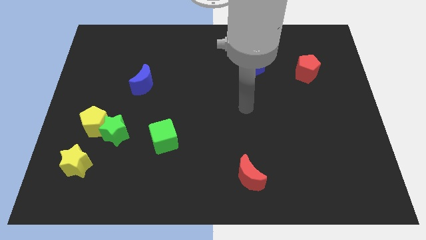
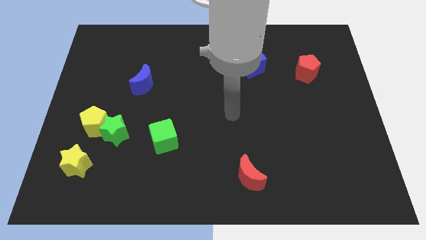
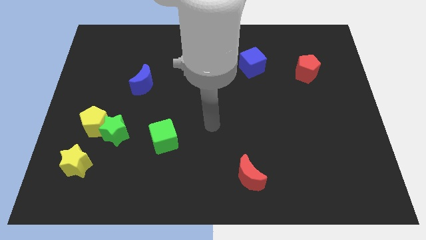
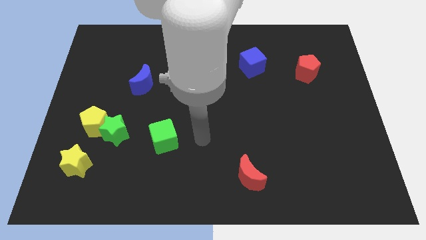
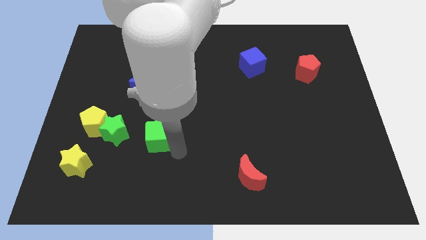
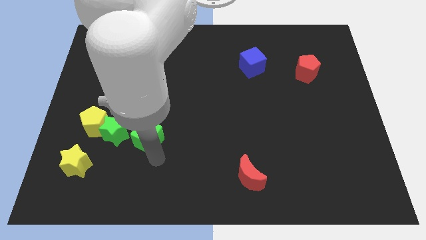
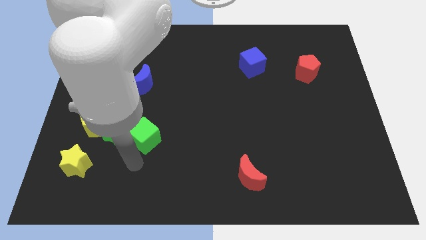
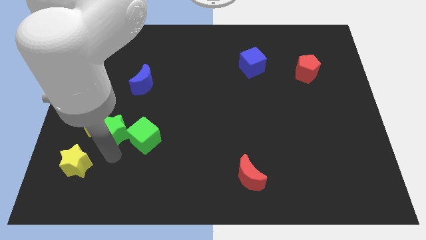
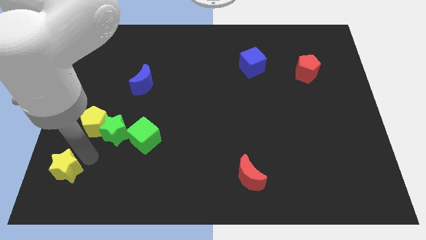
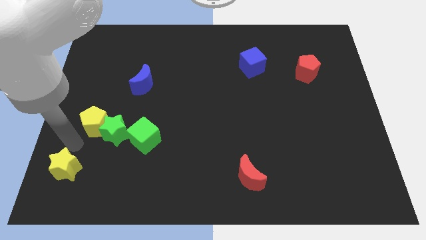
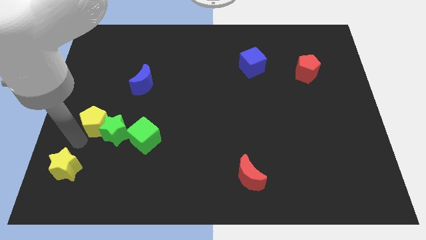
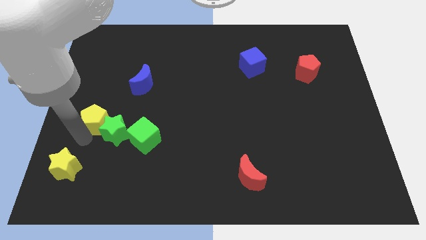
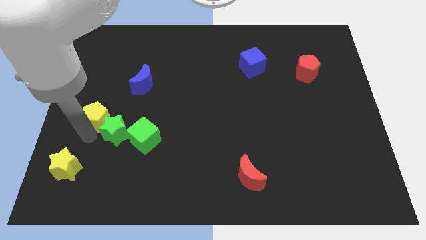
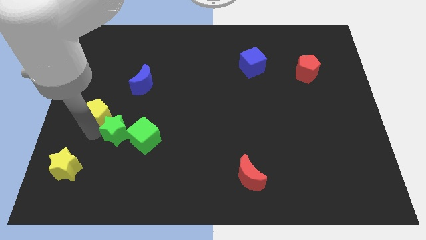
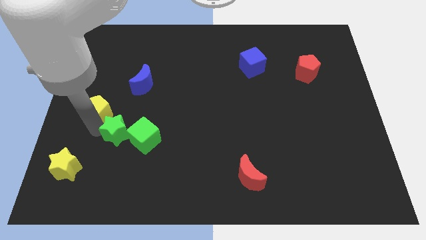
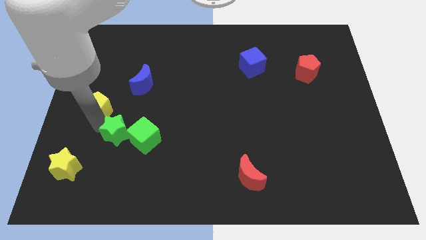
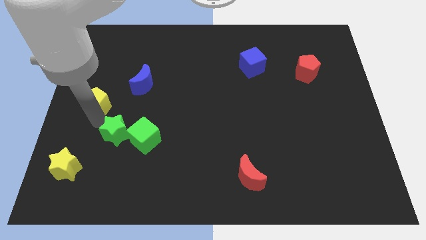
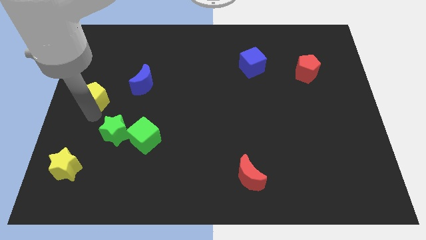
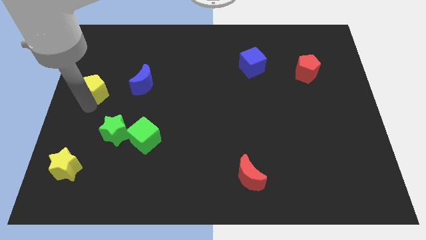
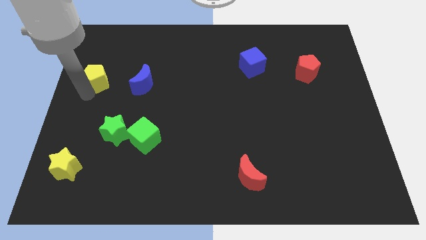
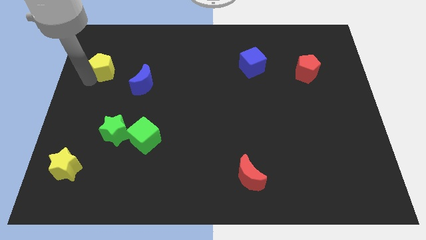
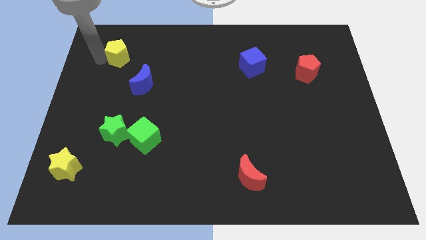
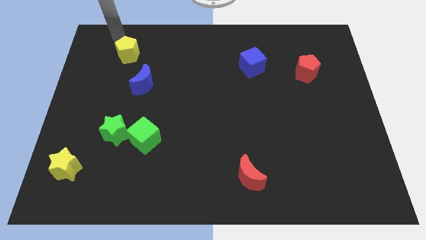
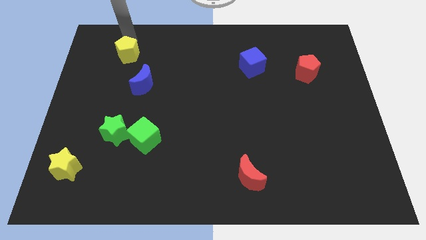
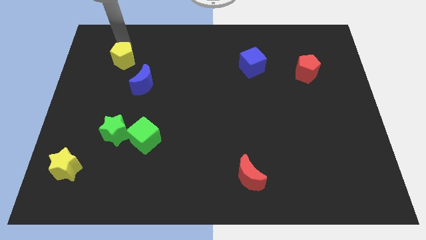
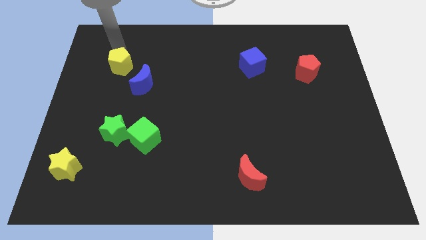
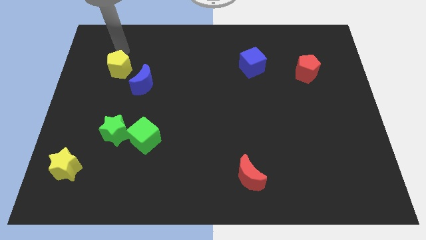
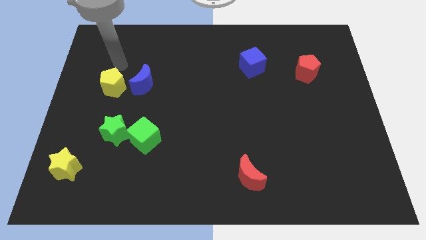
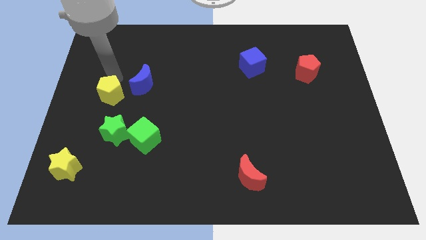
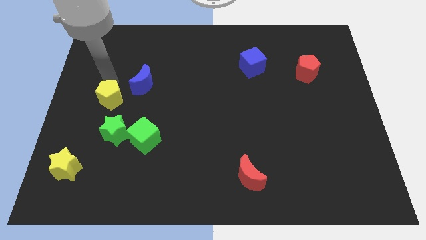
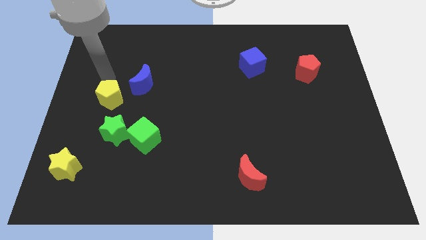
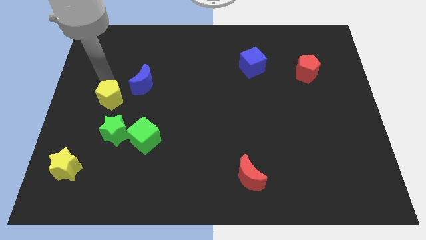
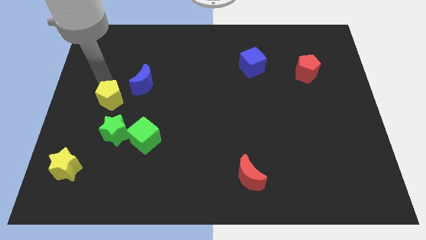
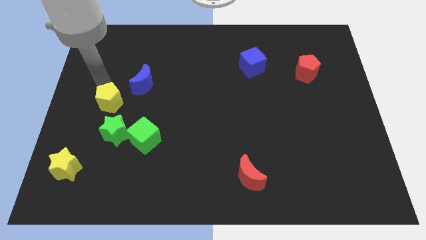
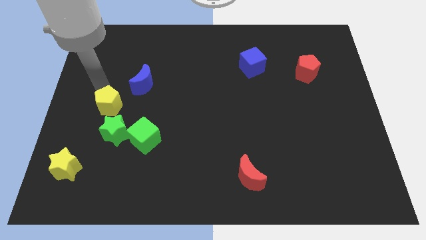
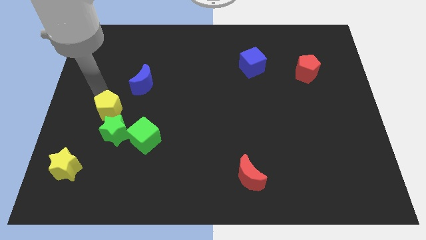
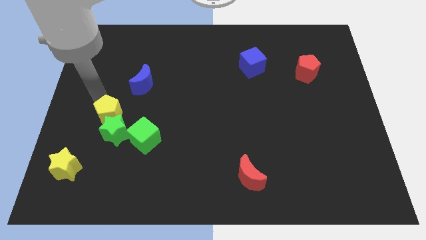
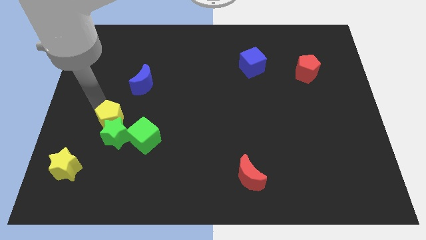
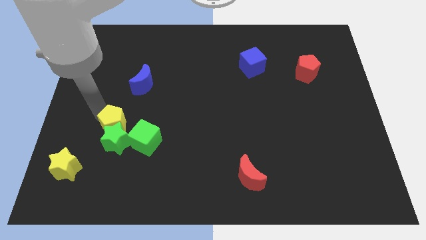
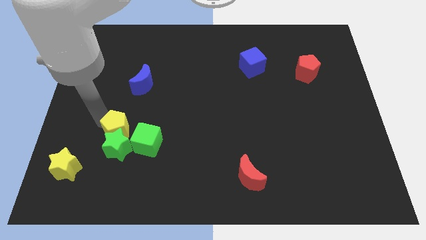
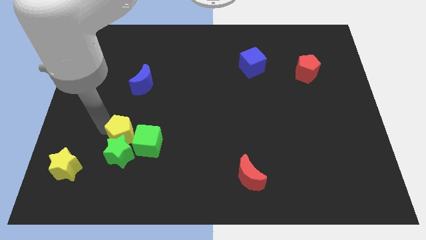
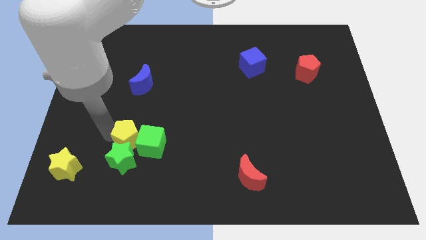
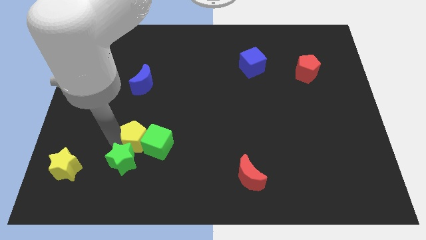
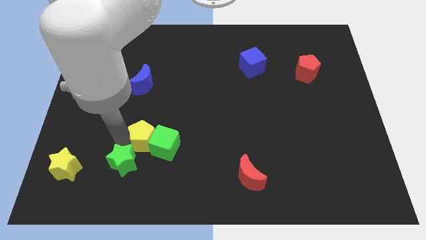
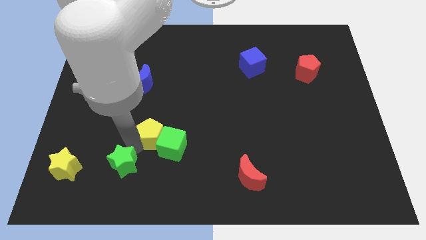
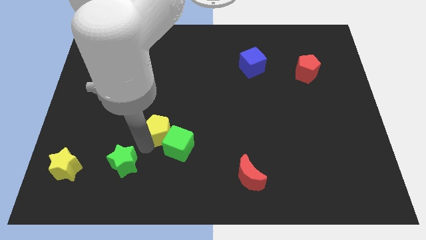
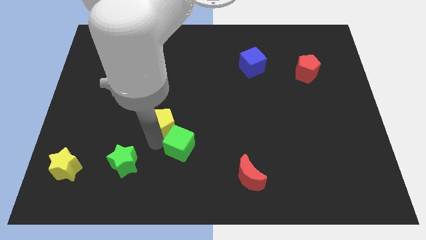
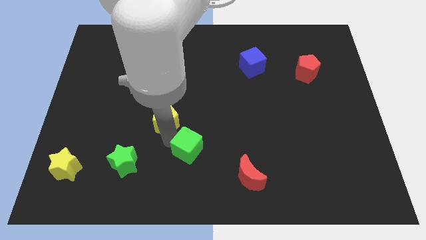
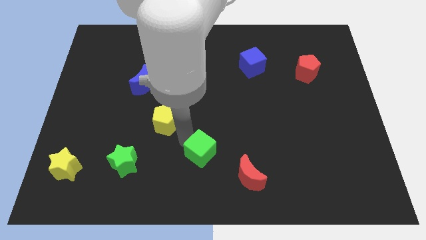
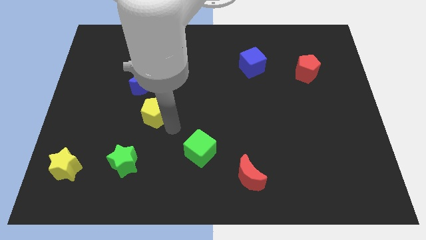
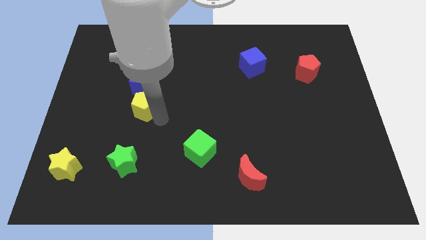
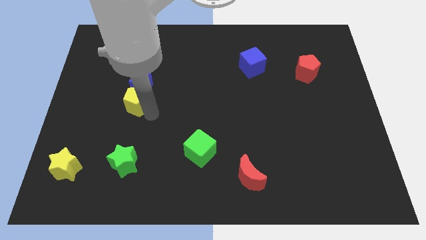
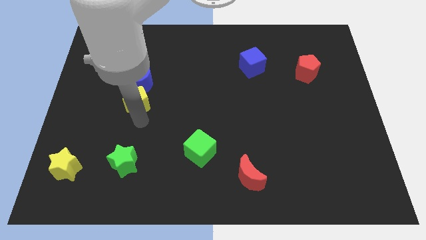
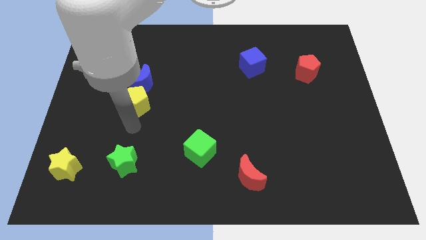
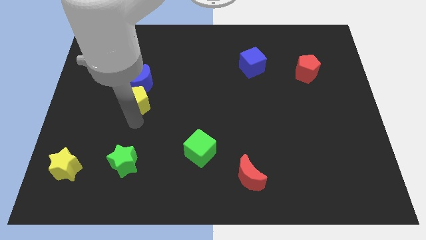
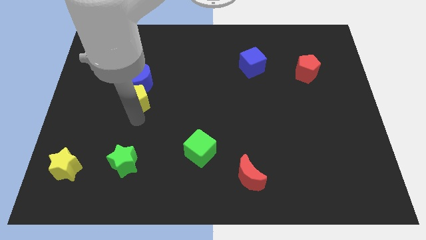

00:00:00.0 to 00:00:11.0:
push the yellow pentagon close to the blue moon

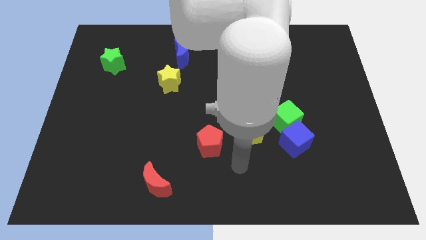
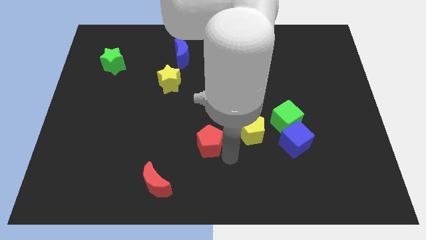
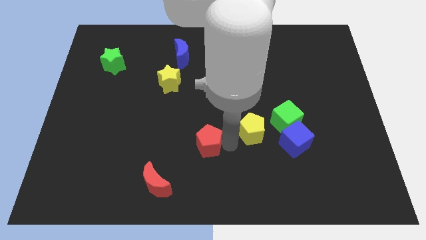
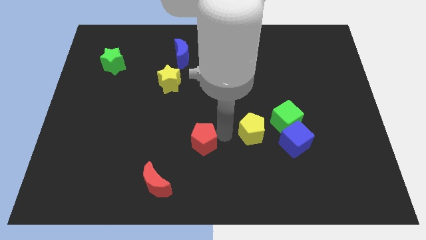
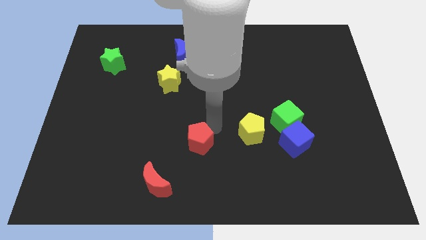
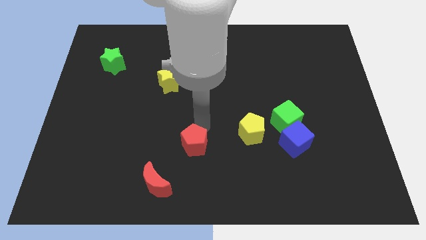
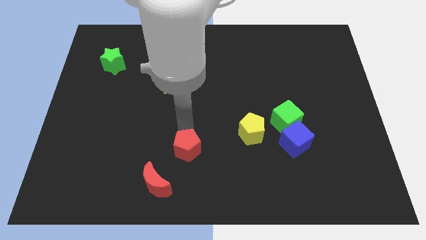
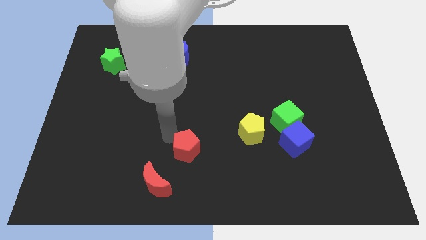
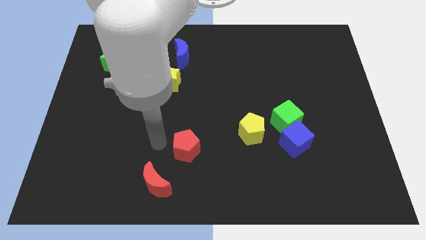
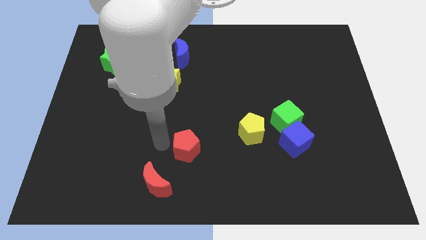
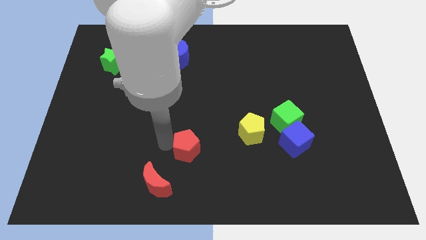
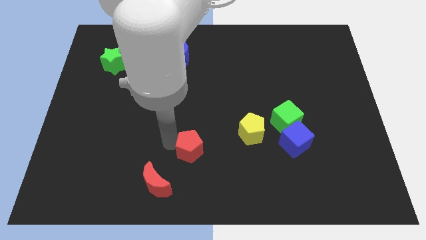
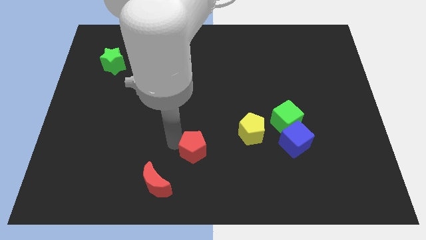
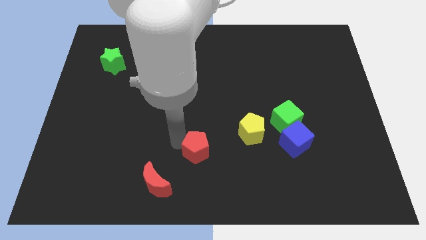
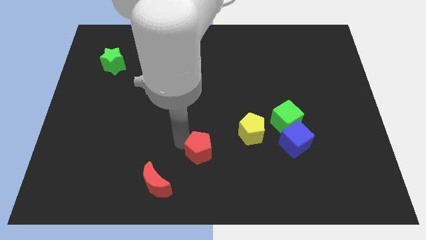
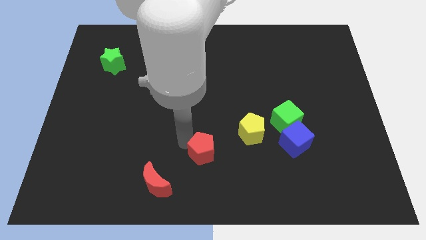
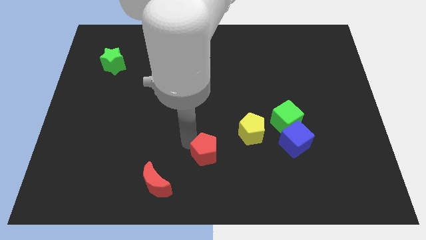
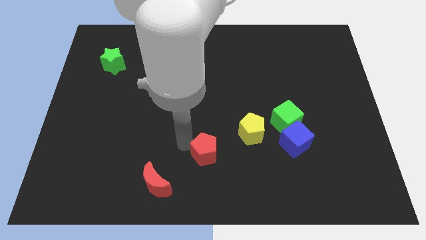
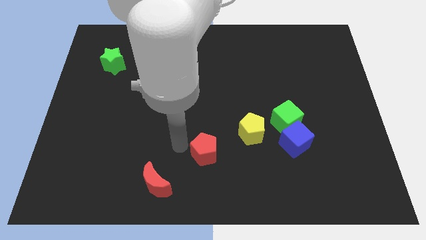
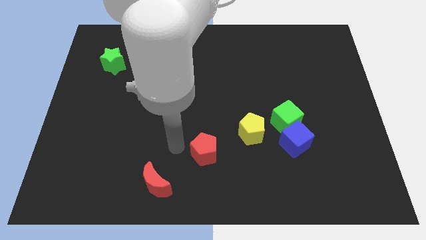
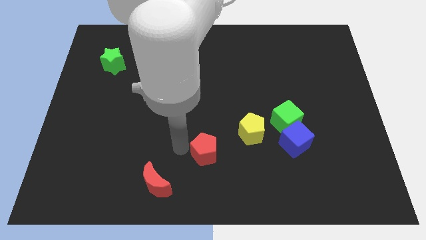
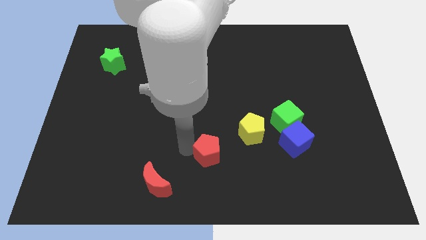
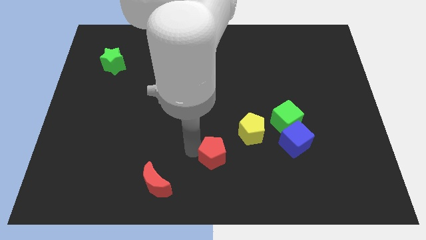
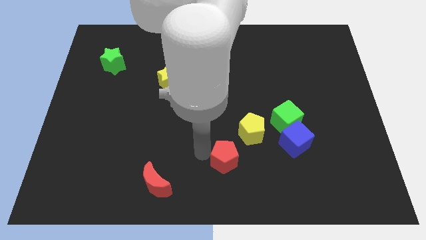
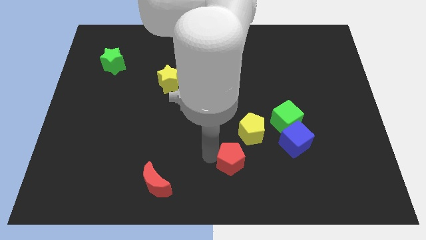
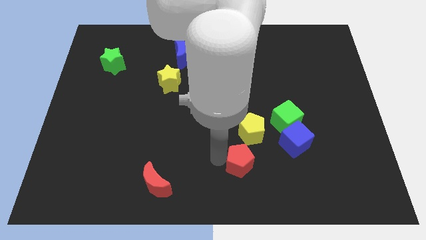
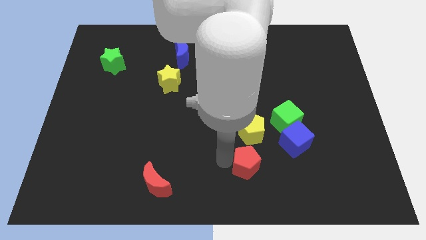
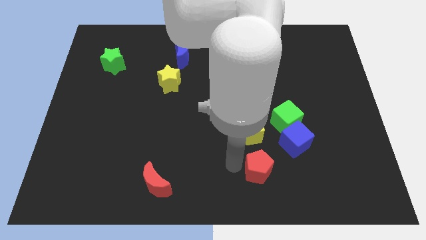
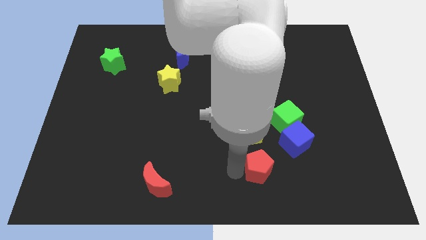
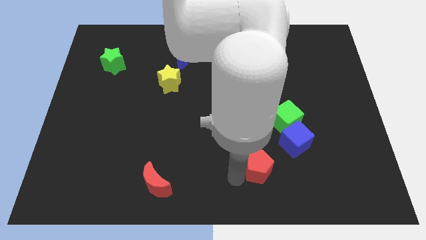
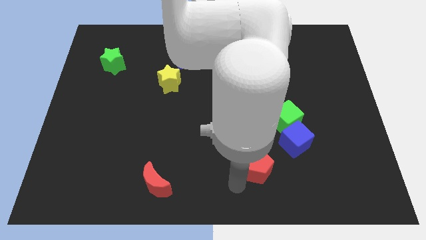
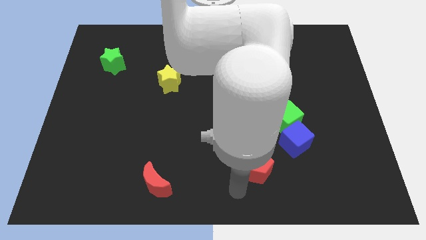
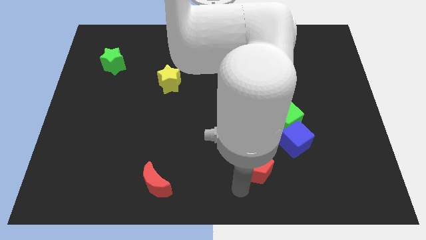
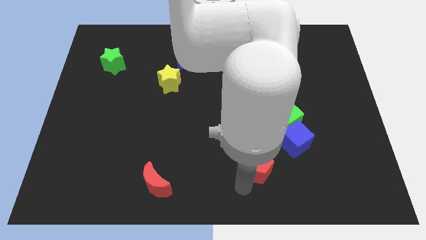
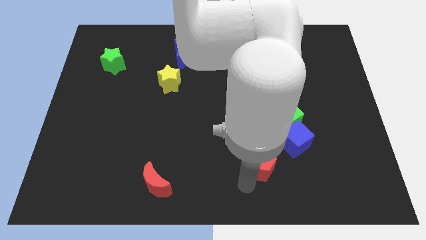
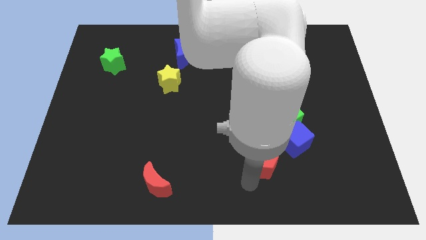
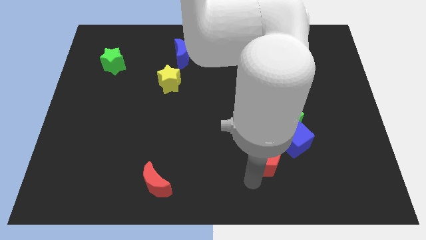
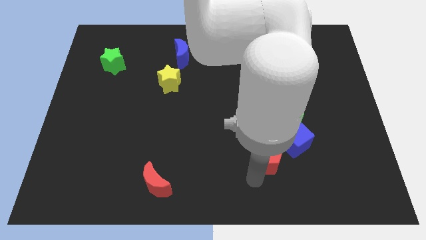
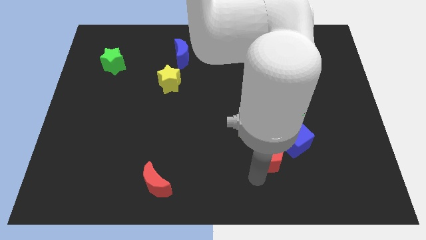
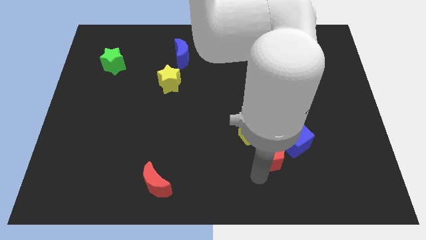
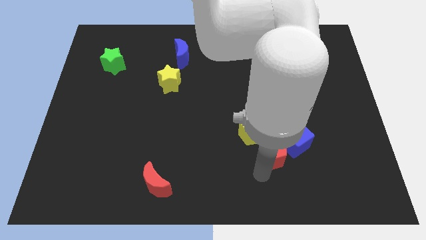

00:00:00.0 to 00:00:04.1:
slide the red pentagon towards the blue cube
